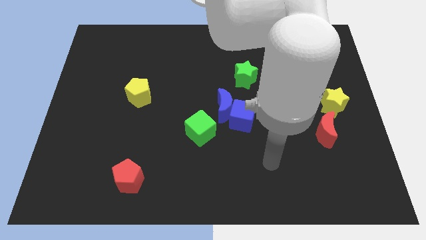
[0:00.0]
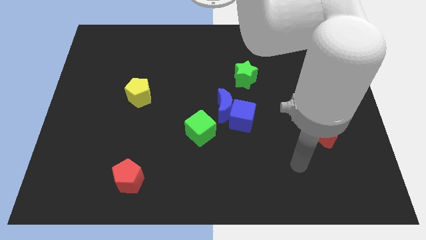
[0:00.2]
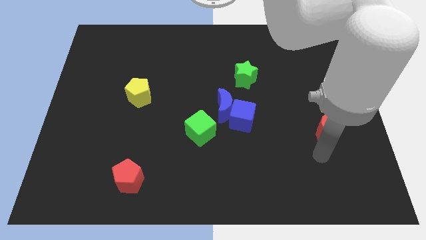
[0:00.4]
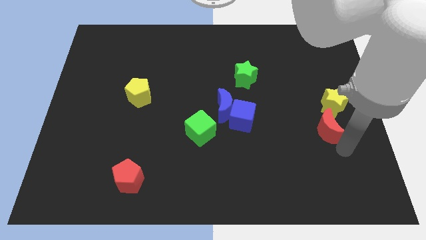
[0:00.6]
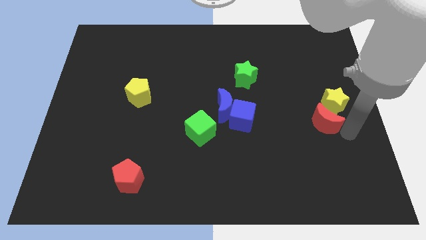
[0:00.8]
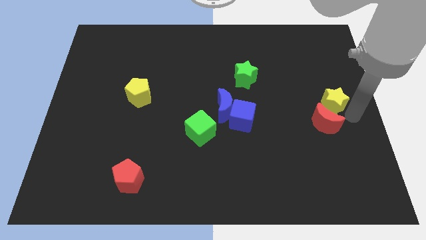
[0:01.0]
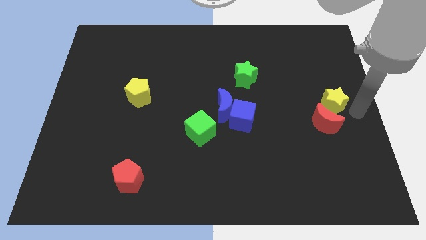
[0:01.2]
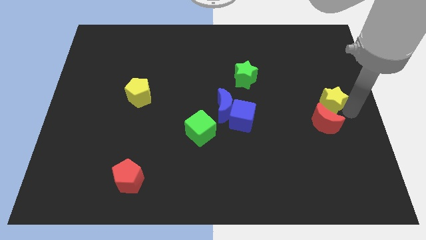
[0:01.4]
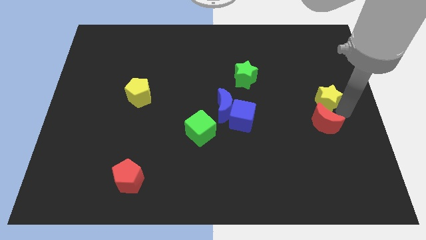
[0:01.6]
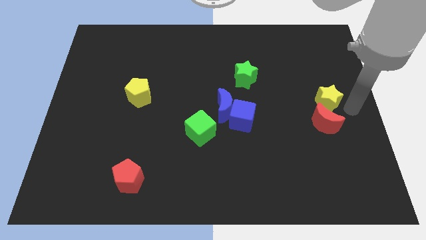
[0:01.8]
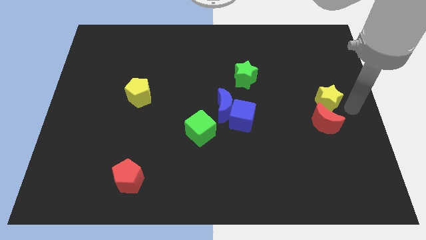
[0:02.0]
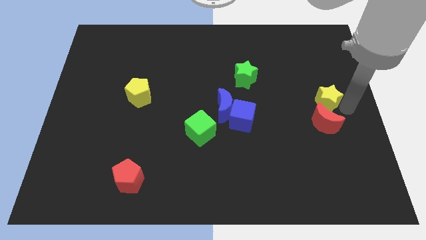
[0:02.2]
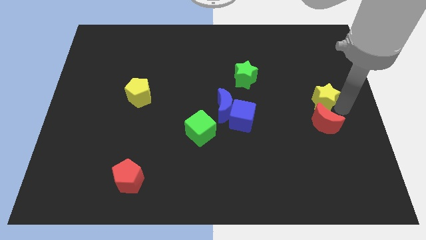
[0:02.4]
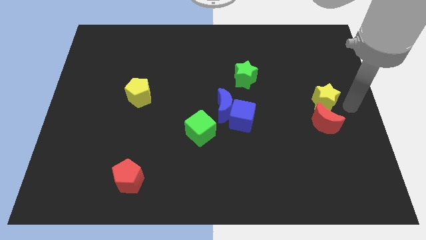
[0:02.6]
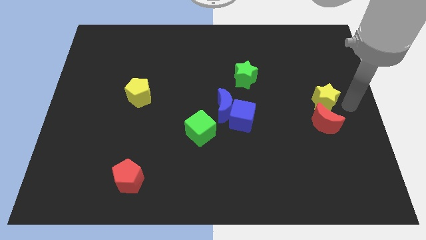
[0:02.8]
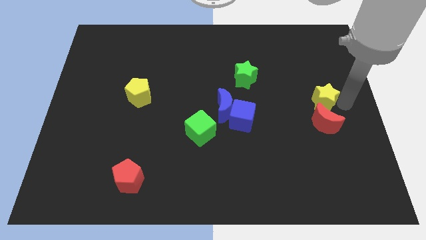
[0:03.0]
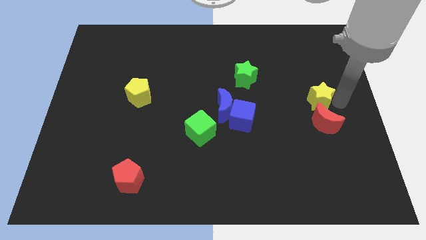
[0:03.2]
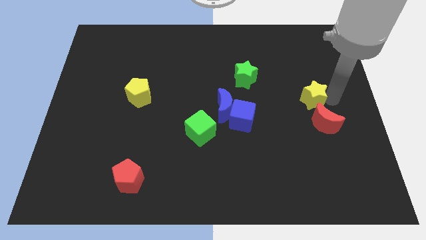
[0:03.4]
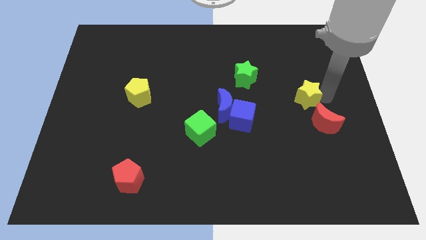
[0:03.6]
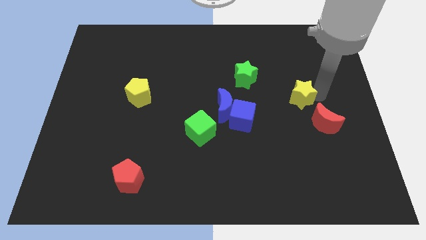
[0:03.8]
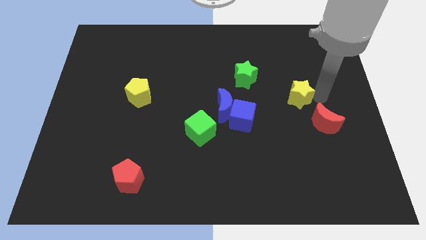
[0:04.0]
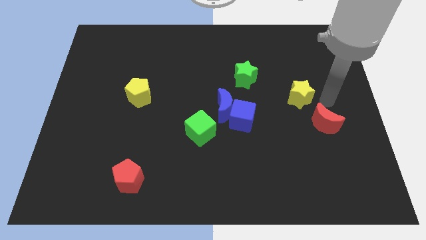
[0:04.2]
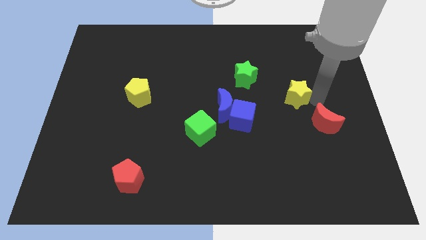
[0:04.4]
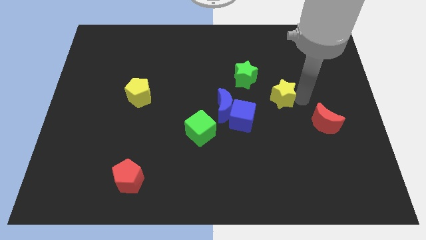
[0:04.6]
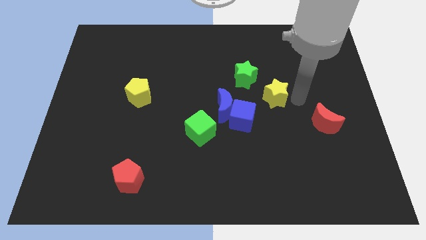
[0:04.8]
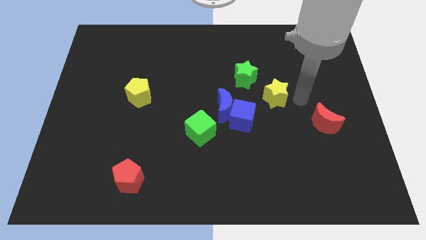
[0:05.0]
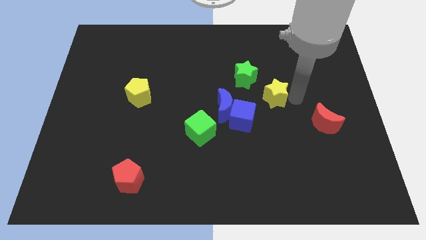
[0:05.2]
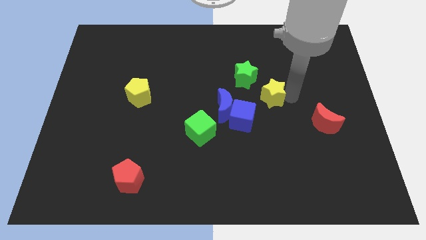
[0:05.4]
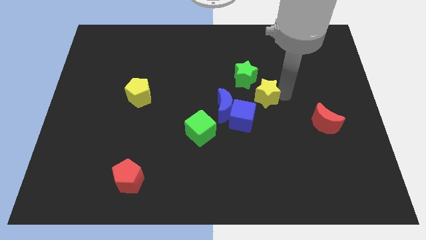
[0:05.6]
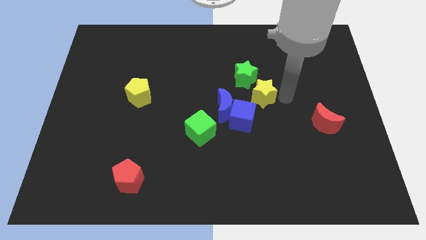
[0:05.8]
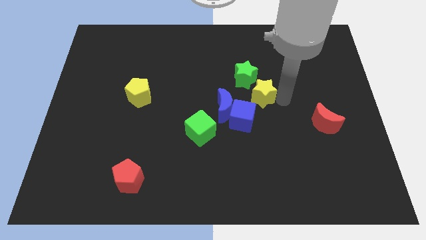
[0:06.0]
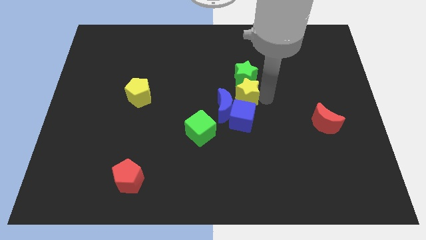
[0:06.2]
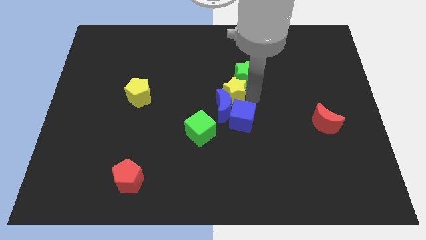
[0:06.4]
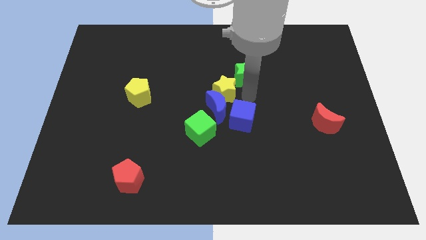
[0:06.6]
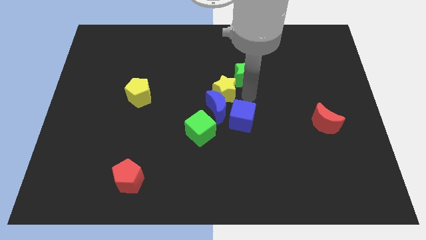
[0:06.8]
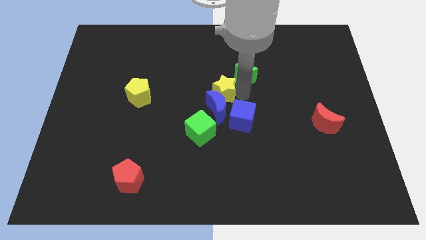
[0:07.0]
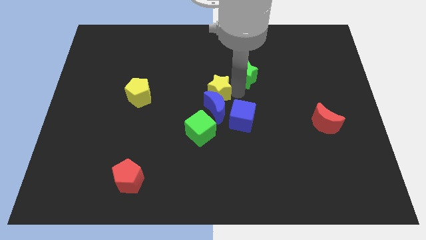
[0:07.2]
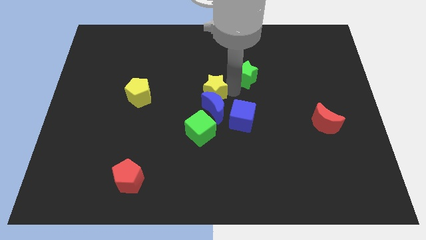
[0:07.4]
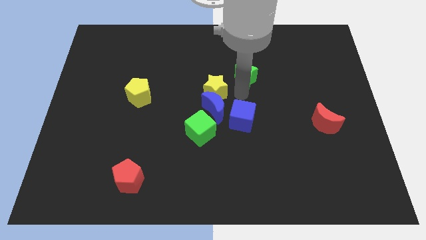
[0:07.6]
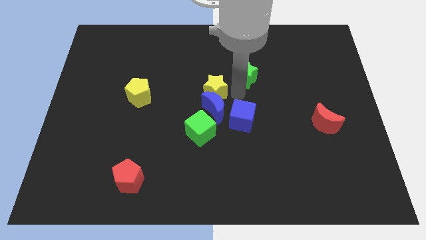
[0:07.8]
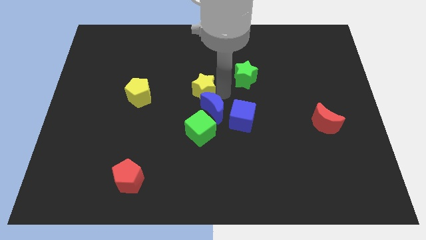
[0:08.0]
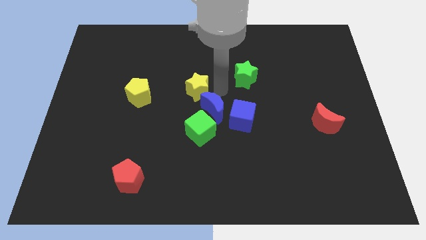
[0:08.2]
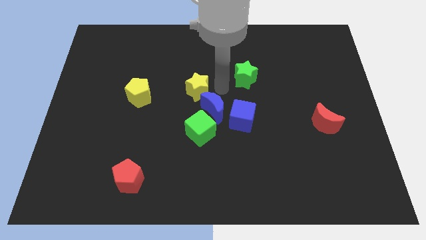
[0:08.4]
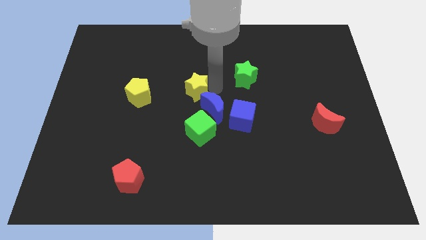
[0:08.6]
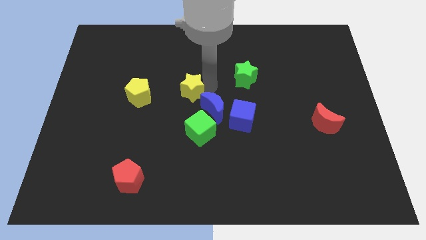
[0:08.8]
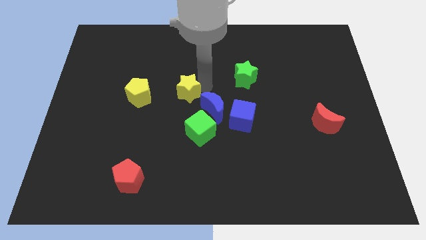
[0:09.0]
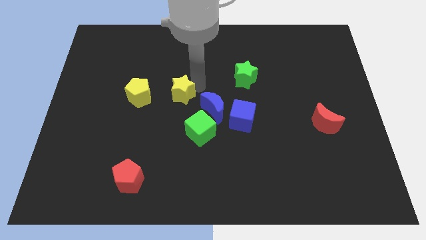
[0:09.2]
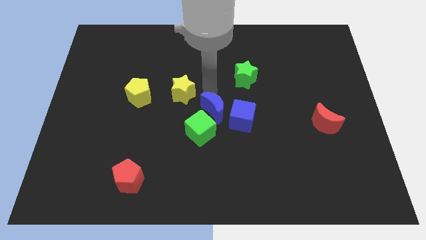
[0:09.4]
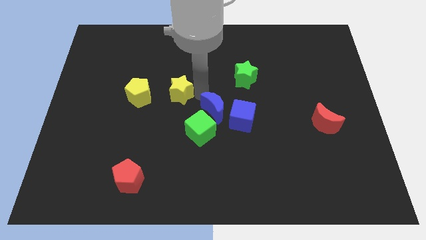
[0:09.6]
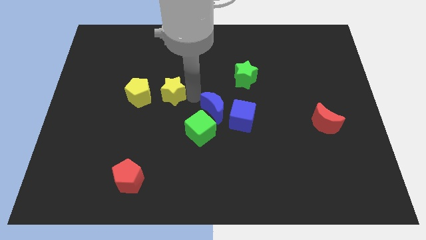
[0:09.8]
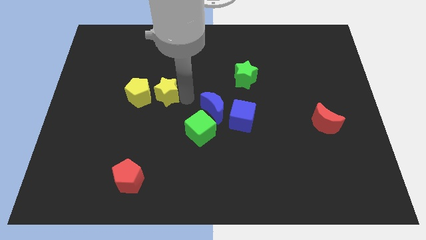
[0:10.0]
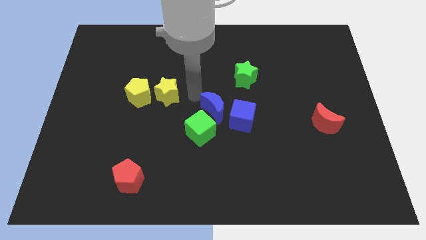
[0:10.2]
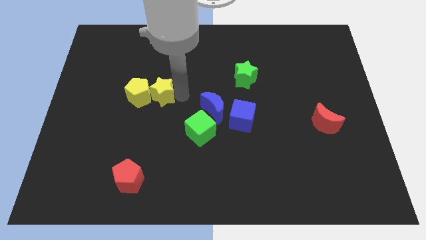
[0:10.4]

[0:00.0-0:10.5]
push the yellow star to the yellow pentagon

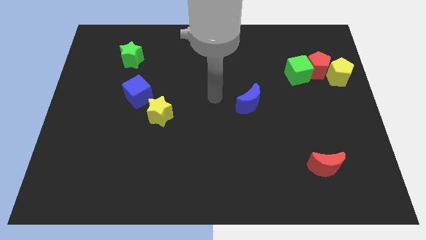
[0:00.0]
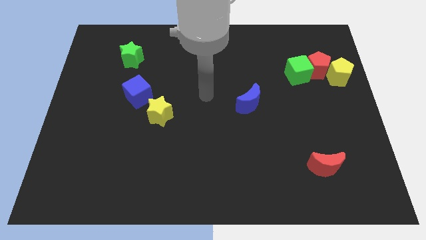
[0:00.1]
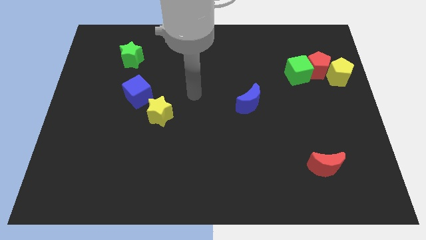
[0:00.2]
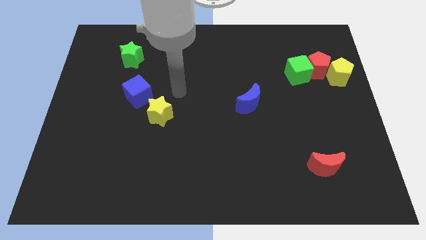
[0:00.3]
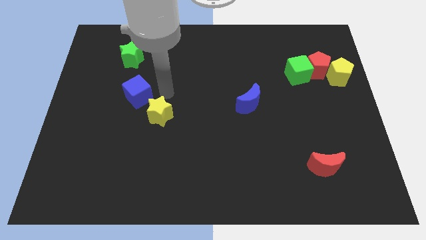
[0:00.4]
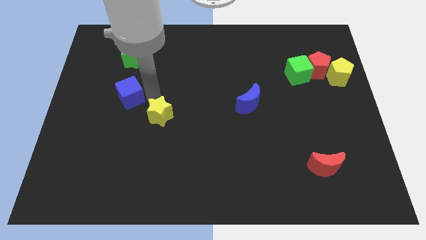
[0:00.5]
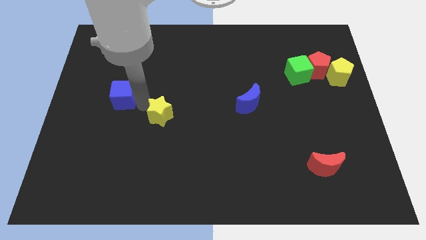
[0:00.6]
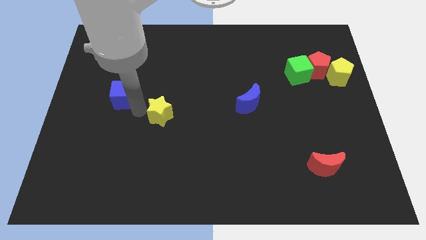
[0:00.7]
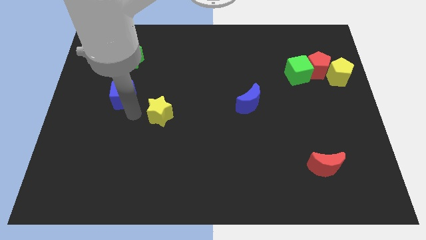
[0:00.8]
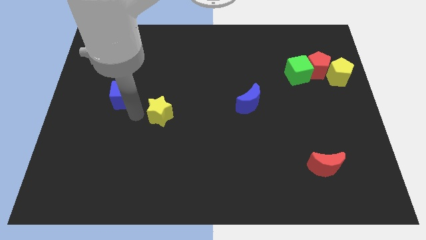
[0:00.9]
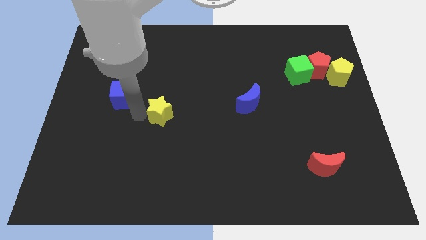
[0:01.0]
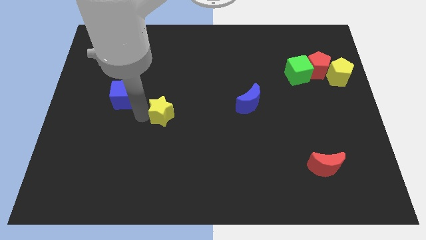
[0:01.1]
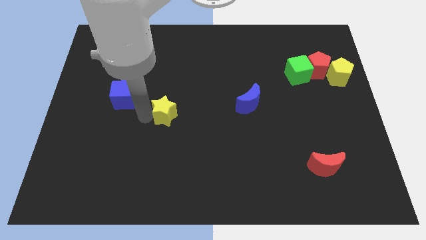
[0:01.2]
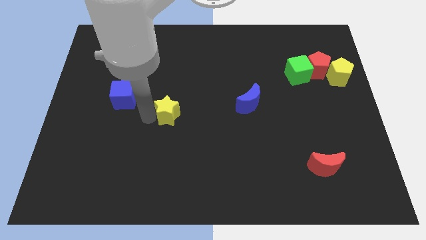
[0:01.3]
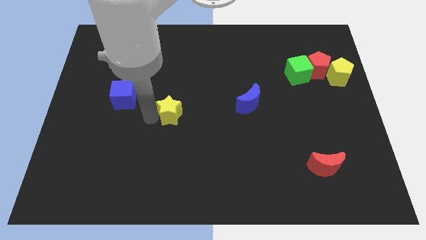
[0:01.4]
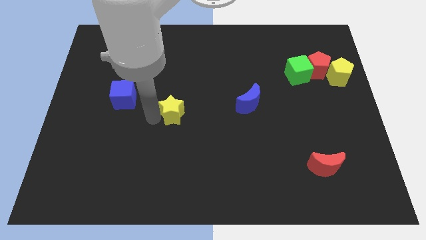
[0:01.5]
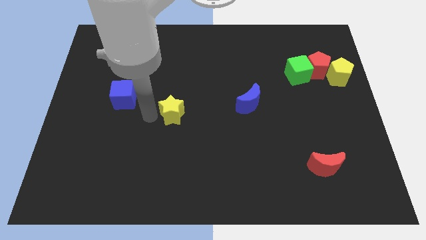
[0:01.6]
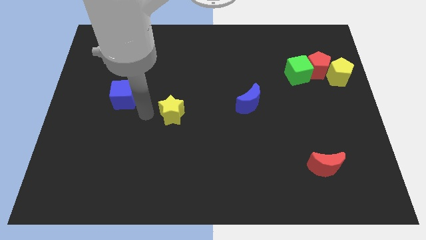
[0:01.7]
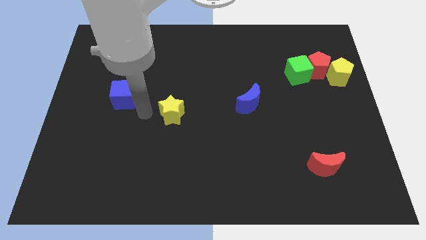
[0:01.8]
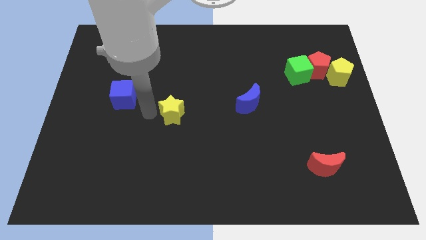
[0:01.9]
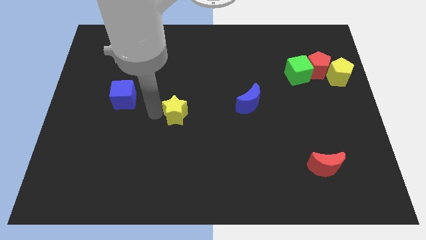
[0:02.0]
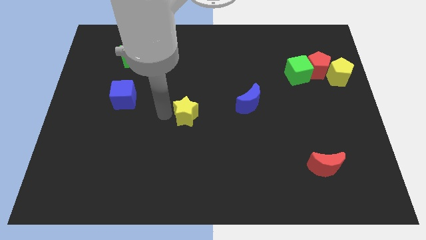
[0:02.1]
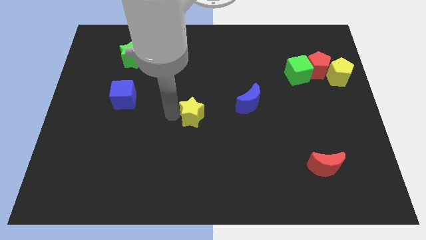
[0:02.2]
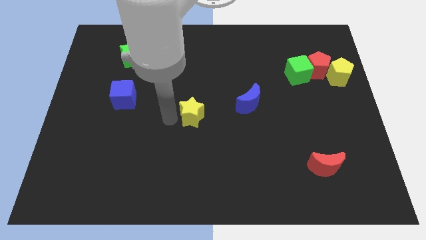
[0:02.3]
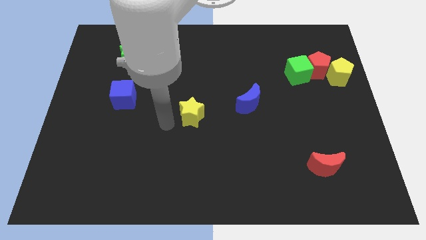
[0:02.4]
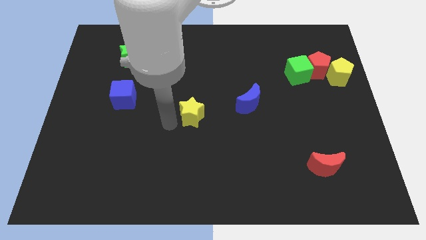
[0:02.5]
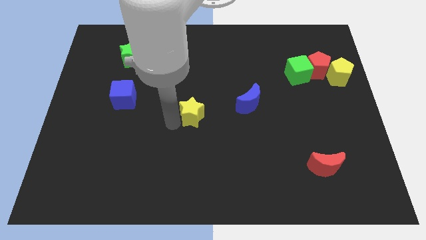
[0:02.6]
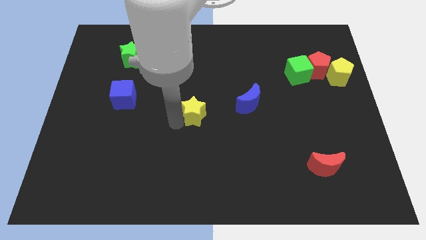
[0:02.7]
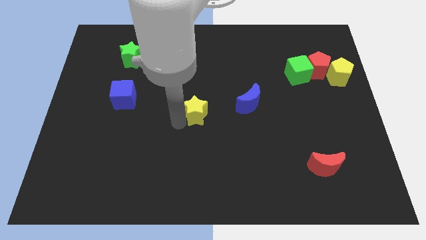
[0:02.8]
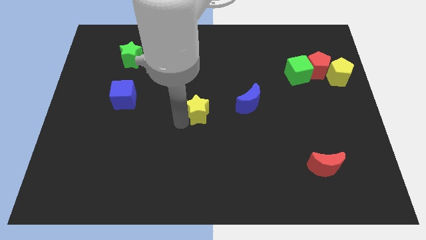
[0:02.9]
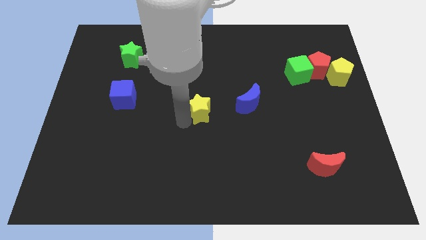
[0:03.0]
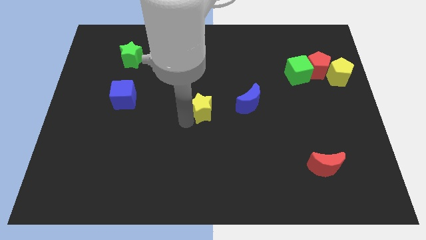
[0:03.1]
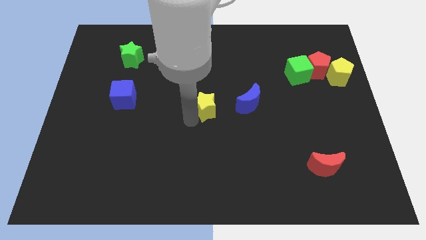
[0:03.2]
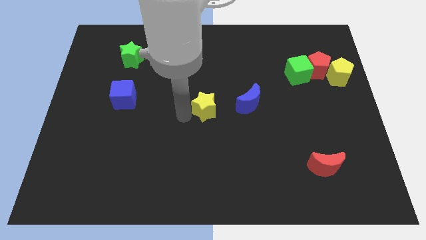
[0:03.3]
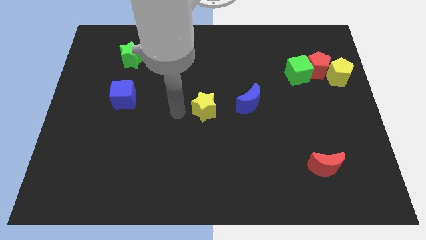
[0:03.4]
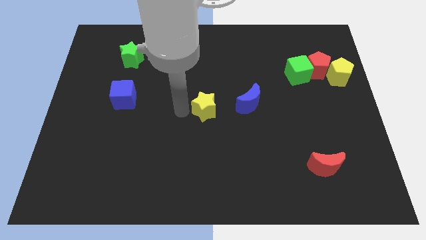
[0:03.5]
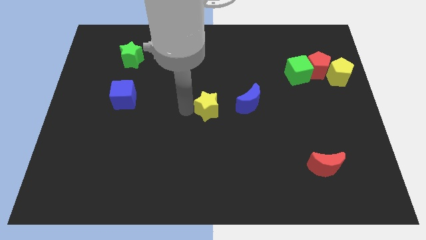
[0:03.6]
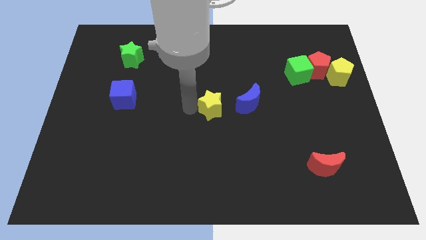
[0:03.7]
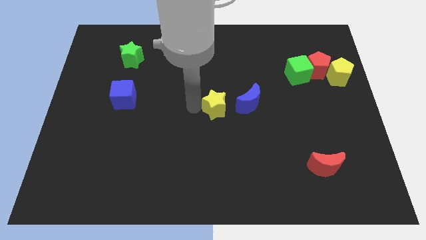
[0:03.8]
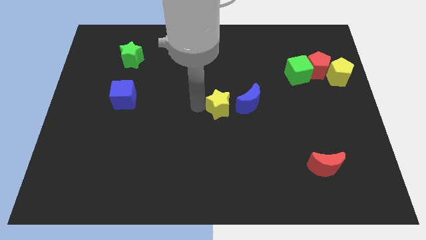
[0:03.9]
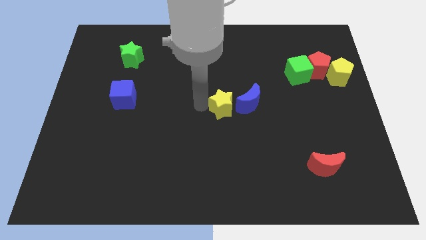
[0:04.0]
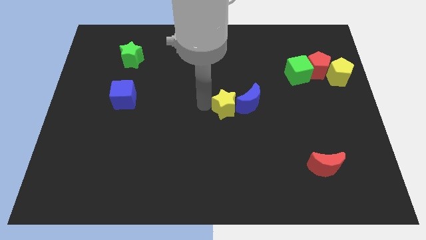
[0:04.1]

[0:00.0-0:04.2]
push the yellow star towards the blue moon
